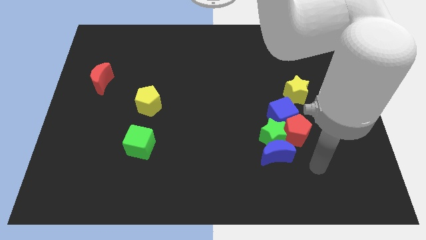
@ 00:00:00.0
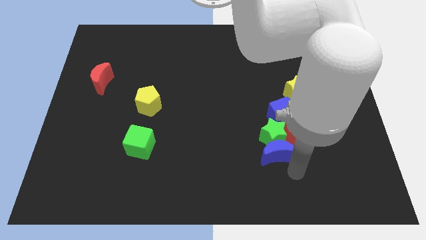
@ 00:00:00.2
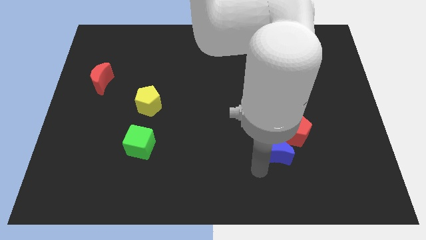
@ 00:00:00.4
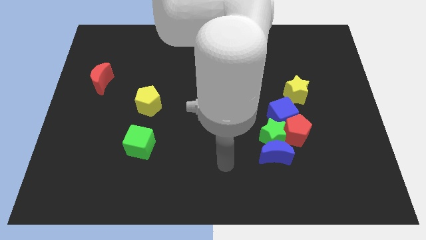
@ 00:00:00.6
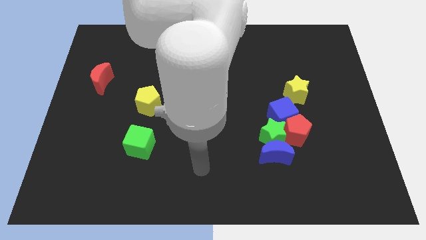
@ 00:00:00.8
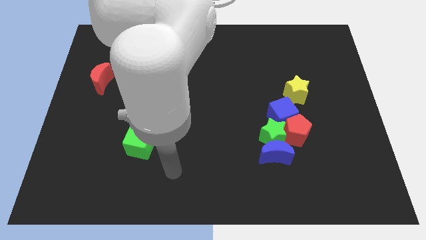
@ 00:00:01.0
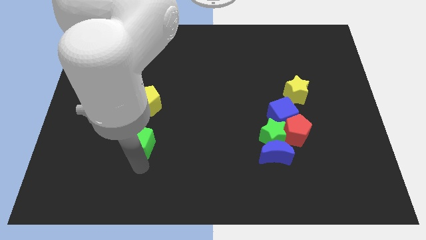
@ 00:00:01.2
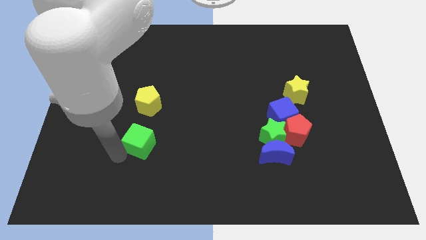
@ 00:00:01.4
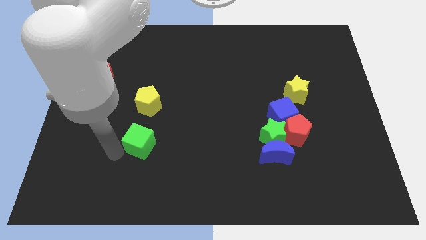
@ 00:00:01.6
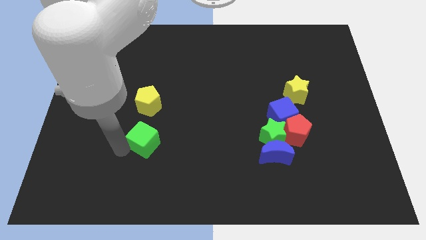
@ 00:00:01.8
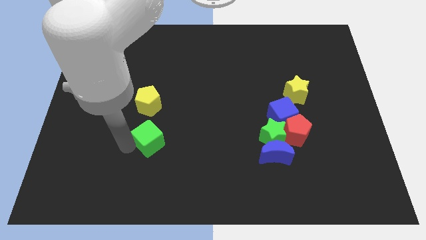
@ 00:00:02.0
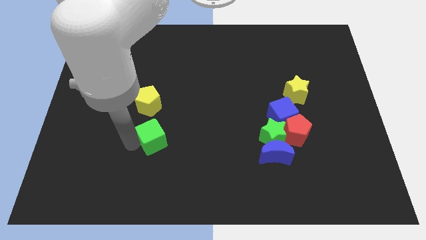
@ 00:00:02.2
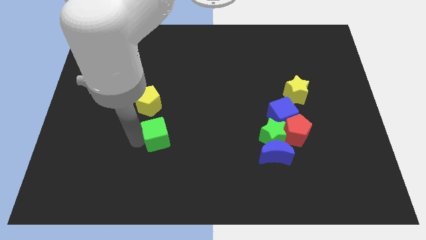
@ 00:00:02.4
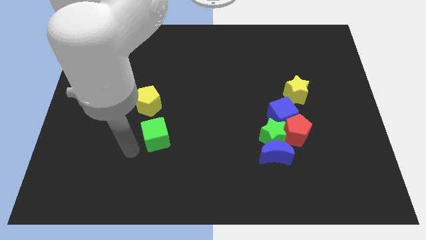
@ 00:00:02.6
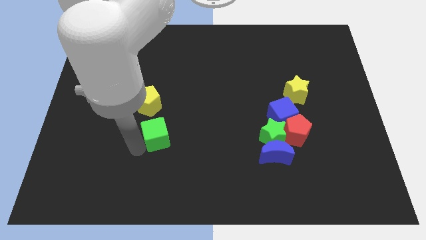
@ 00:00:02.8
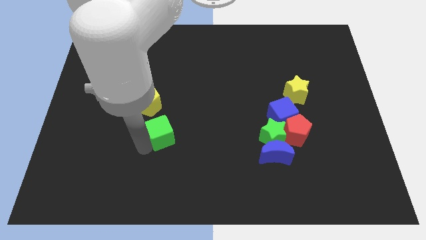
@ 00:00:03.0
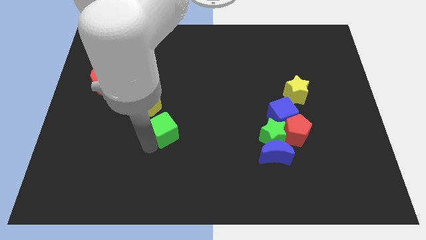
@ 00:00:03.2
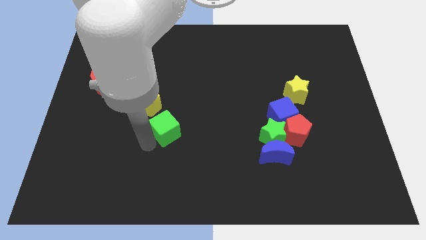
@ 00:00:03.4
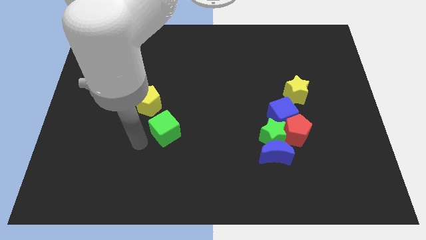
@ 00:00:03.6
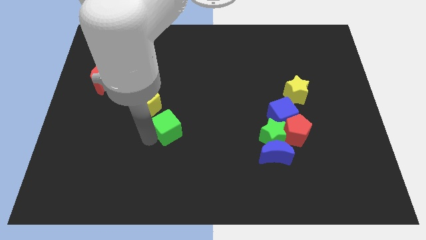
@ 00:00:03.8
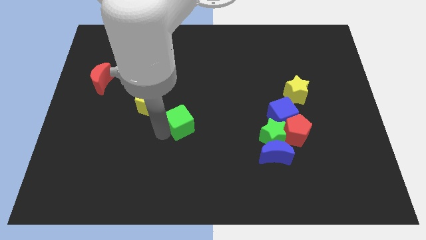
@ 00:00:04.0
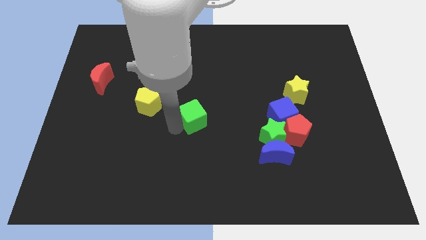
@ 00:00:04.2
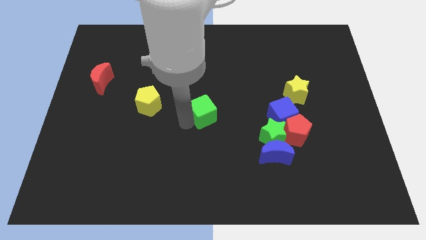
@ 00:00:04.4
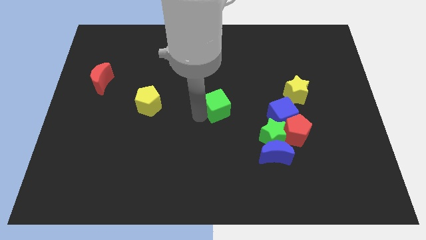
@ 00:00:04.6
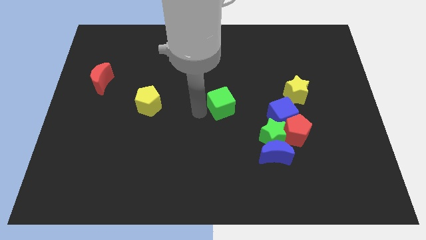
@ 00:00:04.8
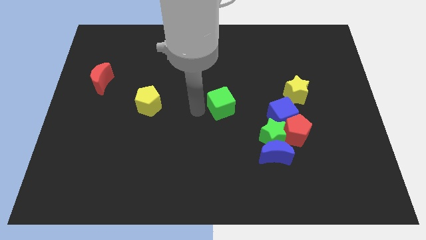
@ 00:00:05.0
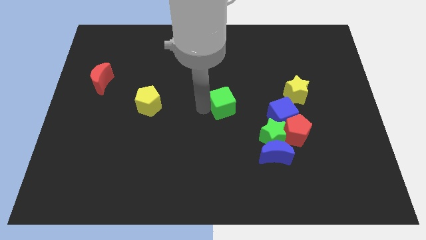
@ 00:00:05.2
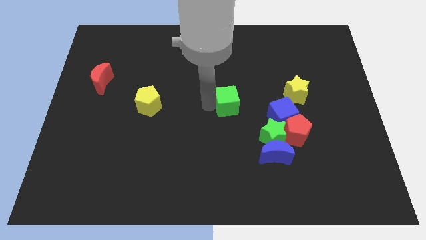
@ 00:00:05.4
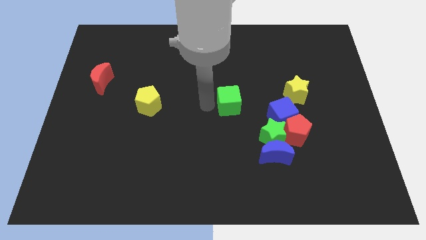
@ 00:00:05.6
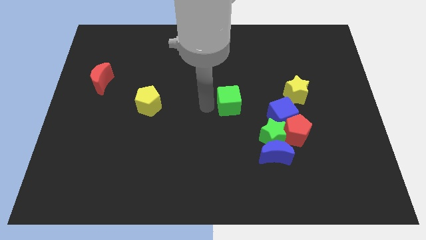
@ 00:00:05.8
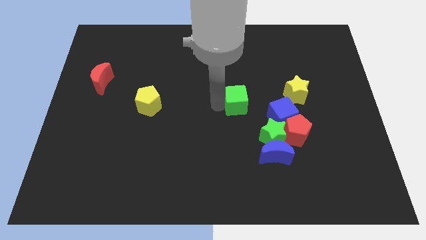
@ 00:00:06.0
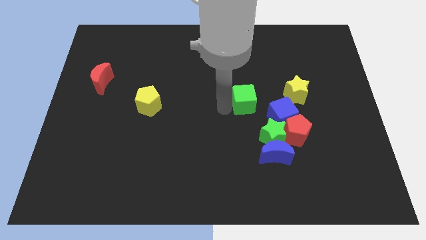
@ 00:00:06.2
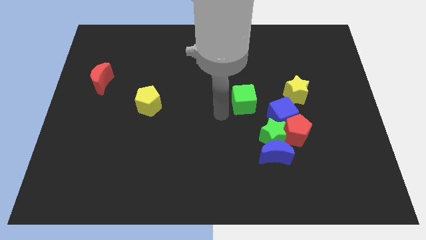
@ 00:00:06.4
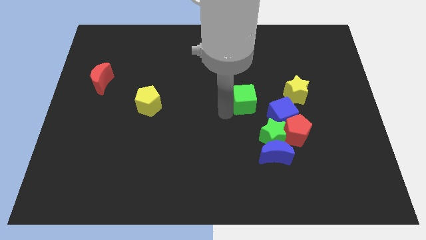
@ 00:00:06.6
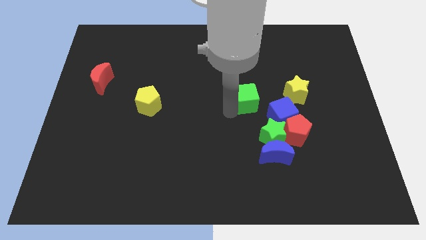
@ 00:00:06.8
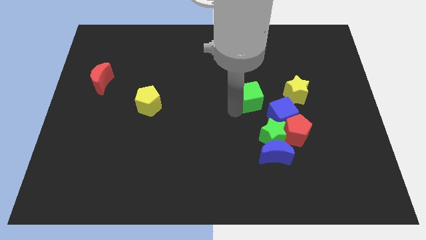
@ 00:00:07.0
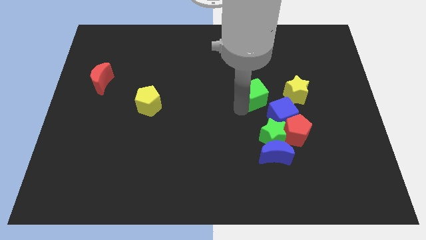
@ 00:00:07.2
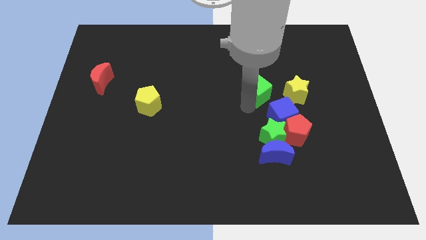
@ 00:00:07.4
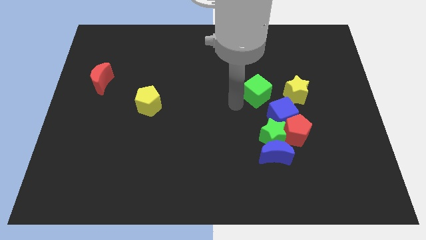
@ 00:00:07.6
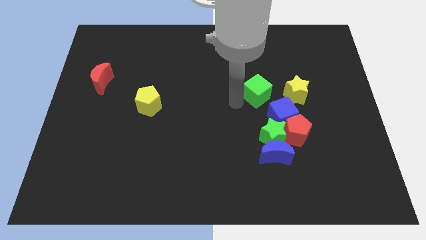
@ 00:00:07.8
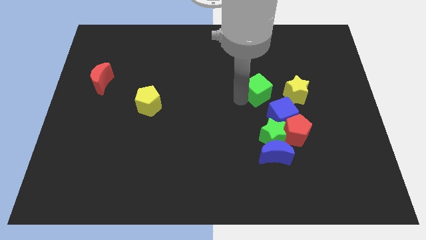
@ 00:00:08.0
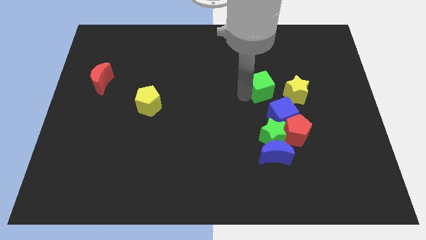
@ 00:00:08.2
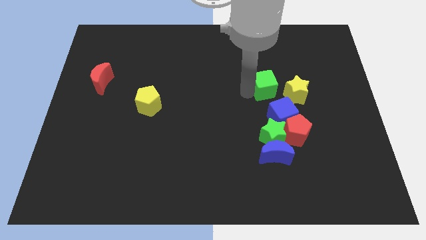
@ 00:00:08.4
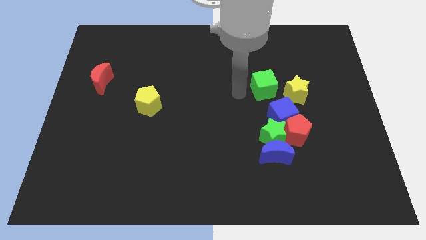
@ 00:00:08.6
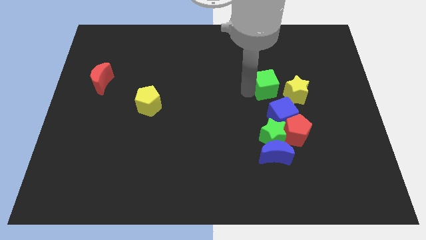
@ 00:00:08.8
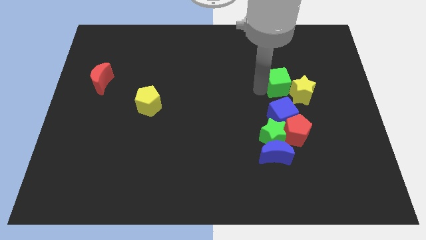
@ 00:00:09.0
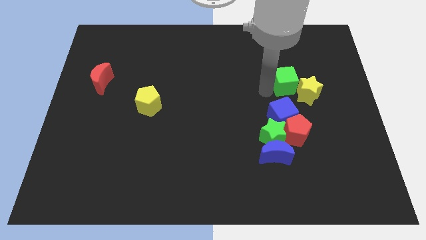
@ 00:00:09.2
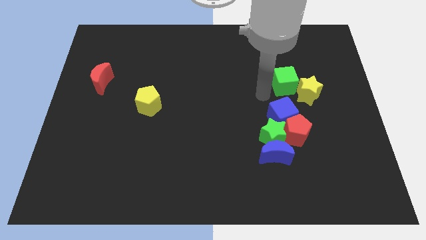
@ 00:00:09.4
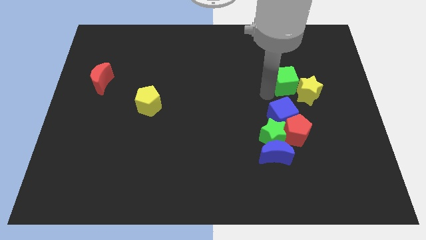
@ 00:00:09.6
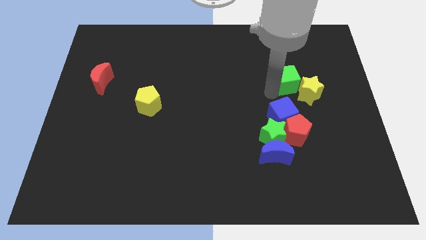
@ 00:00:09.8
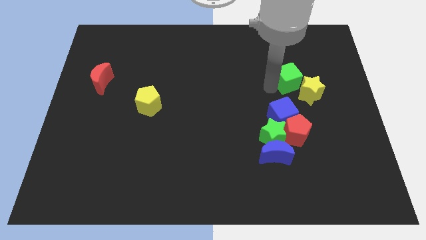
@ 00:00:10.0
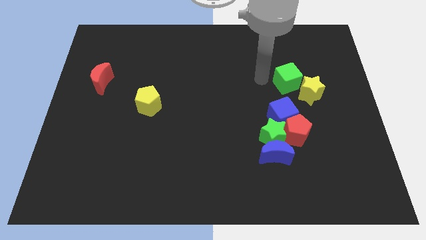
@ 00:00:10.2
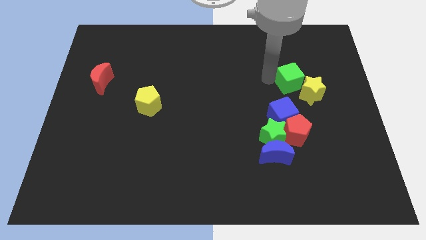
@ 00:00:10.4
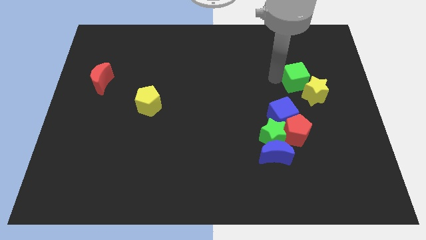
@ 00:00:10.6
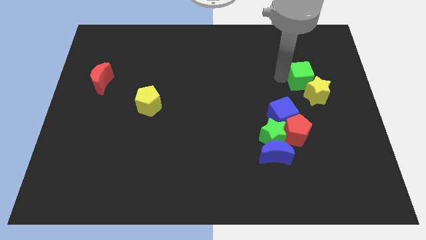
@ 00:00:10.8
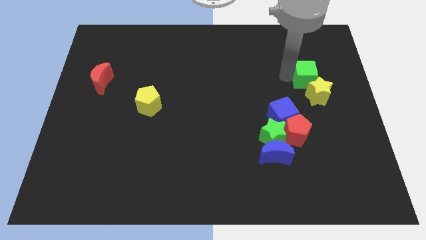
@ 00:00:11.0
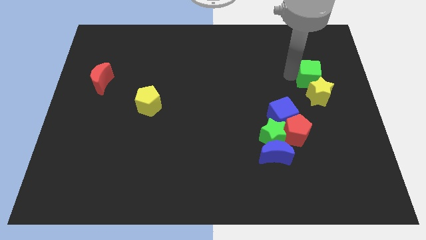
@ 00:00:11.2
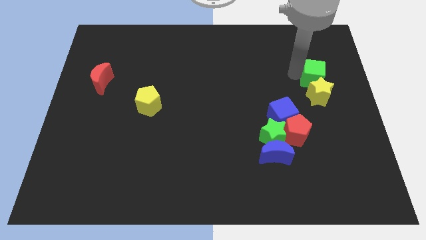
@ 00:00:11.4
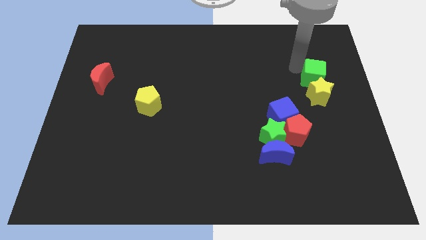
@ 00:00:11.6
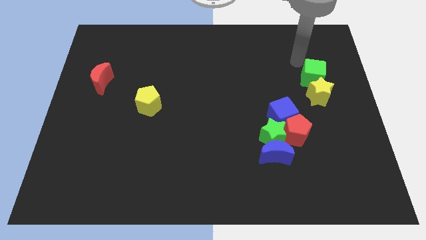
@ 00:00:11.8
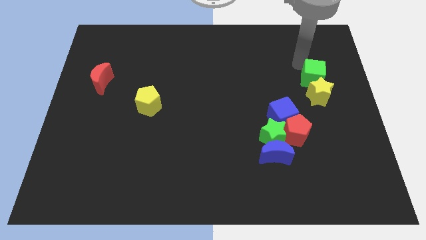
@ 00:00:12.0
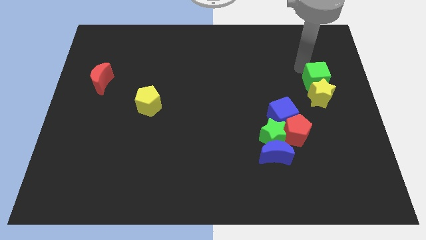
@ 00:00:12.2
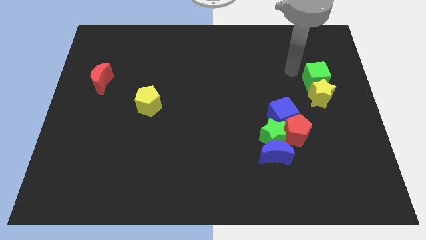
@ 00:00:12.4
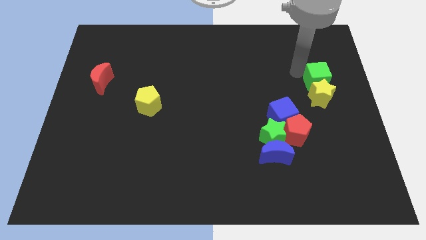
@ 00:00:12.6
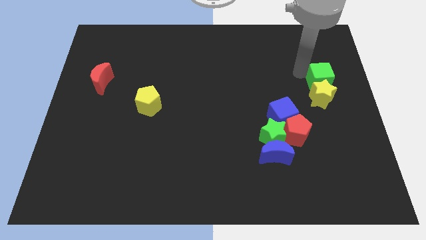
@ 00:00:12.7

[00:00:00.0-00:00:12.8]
push the green cube to the center right
